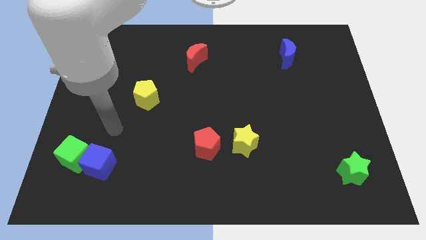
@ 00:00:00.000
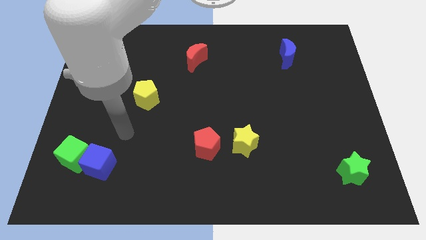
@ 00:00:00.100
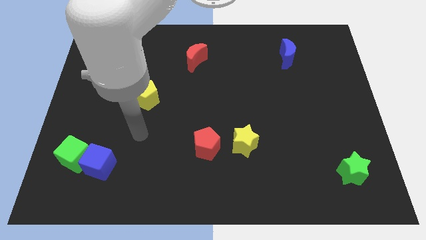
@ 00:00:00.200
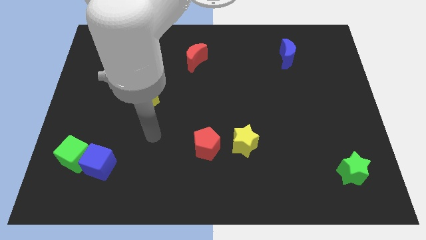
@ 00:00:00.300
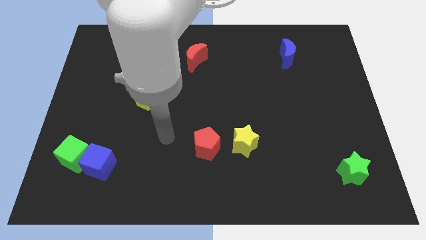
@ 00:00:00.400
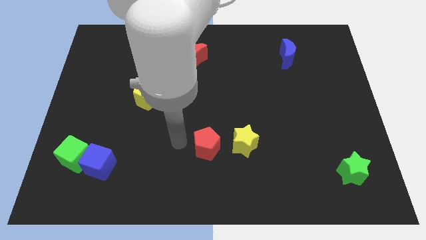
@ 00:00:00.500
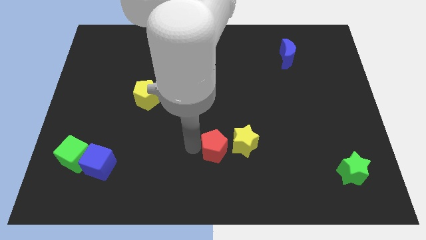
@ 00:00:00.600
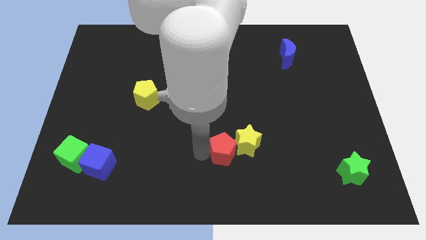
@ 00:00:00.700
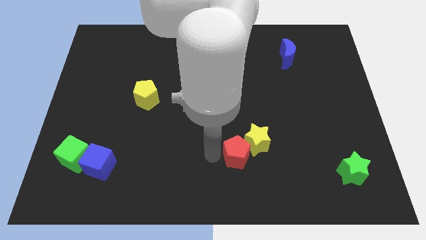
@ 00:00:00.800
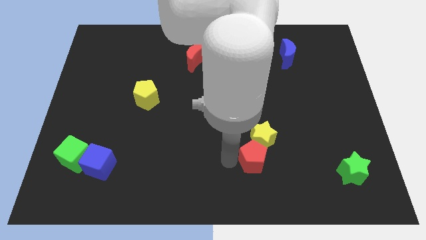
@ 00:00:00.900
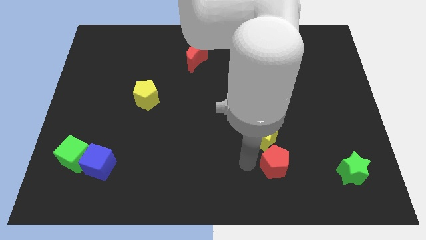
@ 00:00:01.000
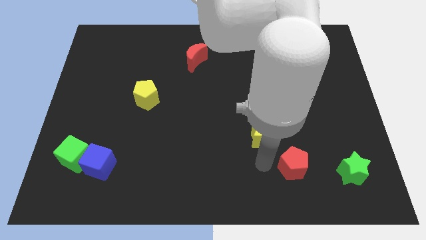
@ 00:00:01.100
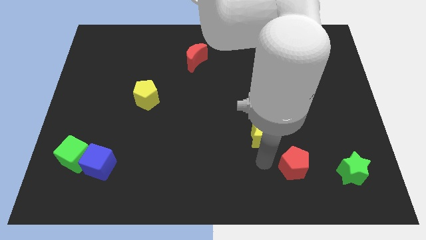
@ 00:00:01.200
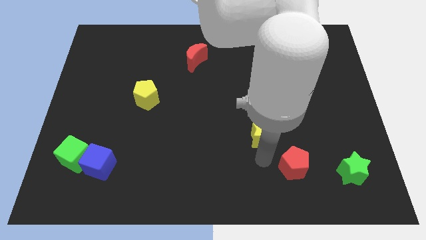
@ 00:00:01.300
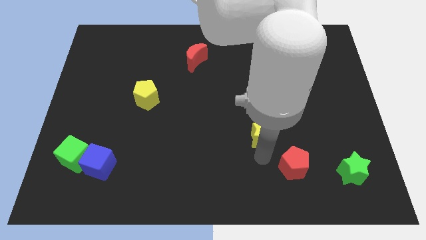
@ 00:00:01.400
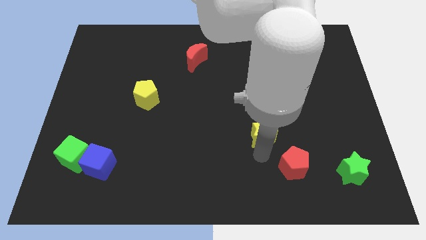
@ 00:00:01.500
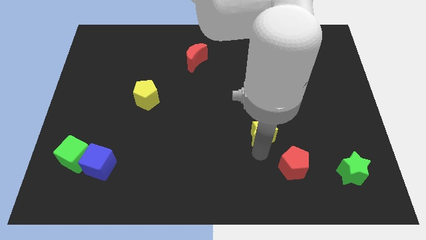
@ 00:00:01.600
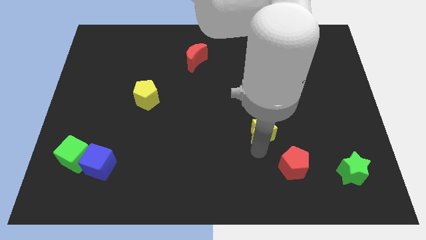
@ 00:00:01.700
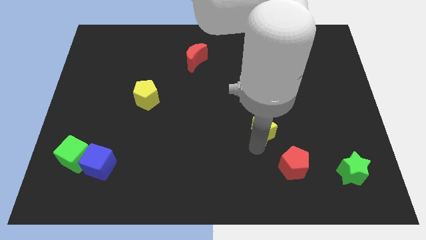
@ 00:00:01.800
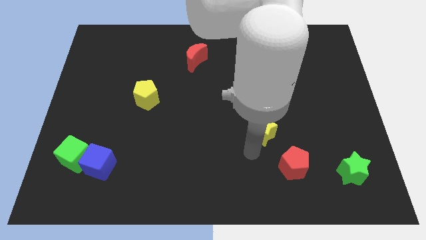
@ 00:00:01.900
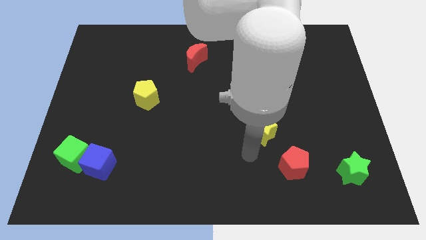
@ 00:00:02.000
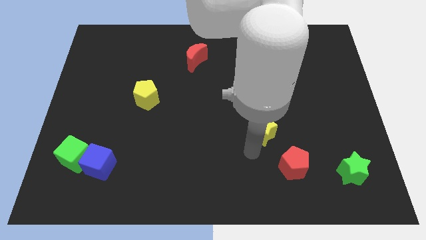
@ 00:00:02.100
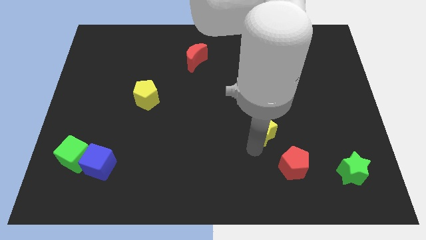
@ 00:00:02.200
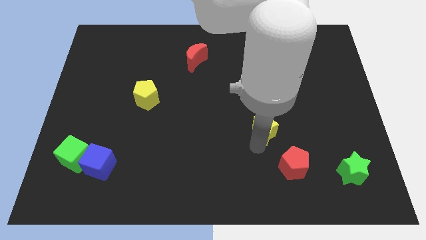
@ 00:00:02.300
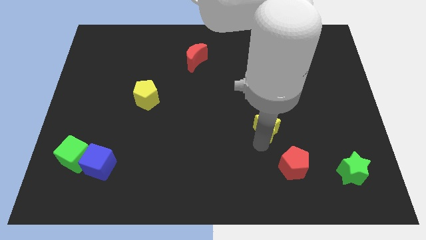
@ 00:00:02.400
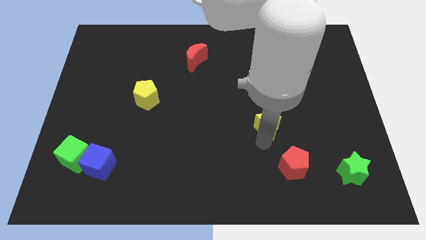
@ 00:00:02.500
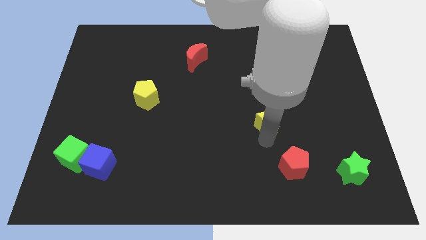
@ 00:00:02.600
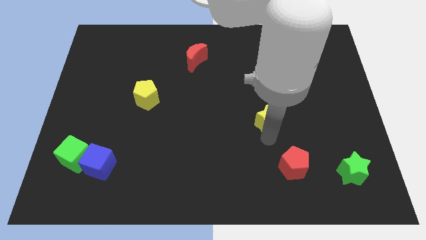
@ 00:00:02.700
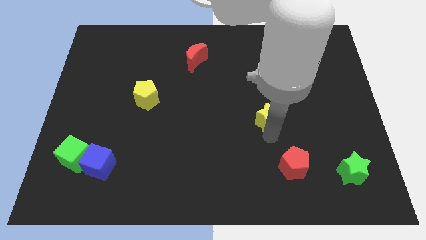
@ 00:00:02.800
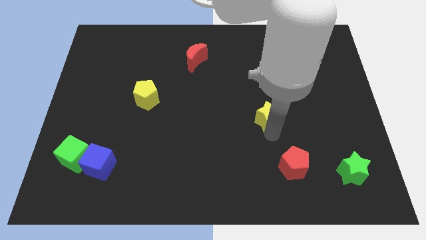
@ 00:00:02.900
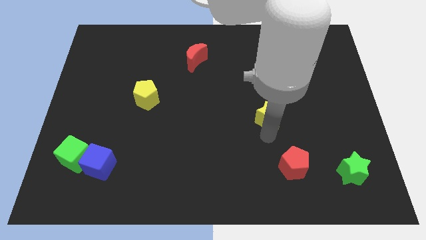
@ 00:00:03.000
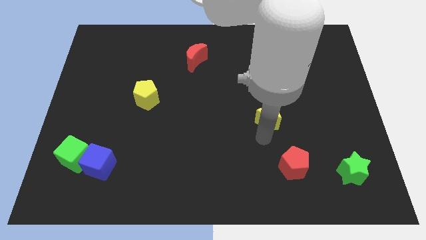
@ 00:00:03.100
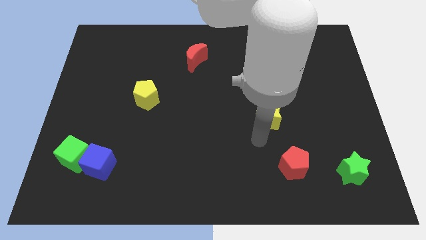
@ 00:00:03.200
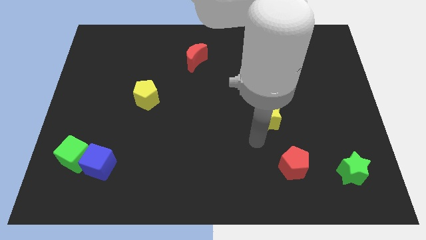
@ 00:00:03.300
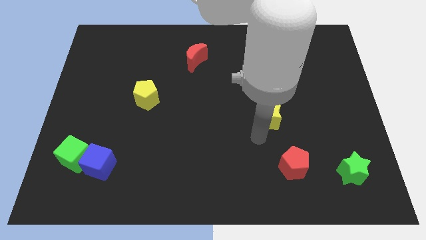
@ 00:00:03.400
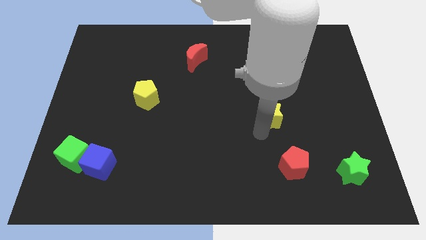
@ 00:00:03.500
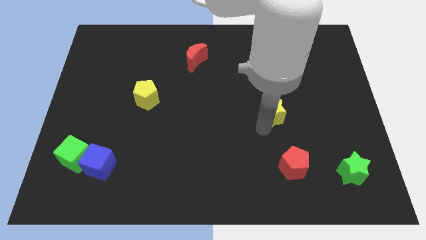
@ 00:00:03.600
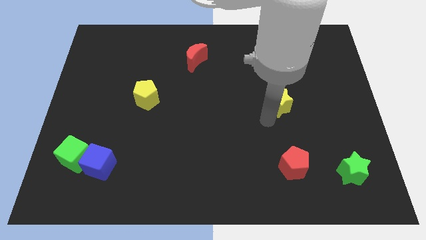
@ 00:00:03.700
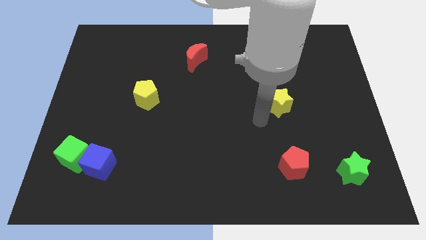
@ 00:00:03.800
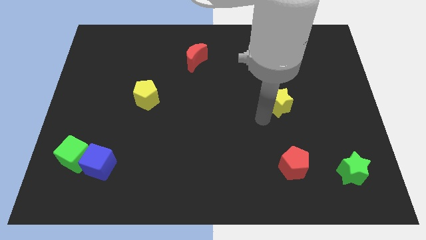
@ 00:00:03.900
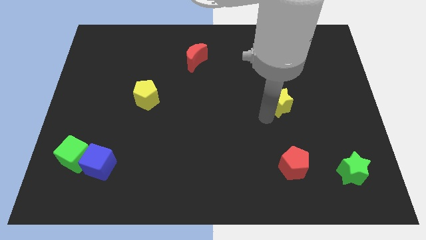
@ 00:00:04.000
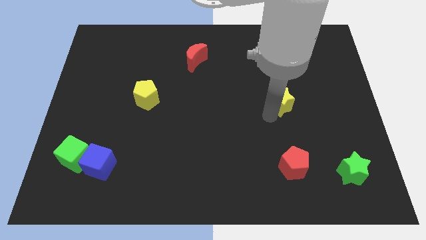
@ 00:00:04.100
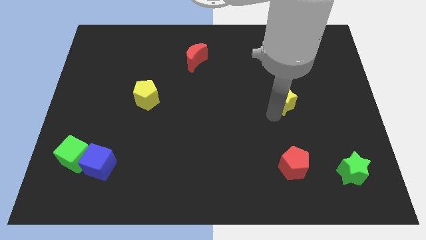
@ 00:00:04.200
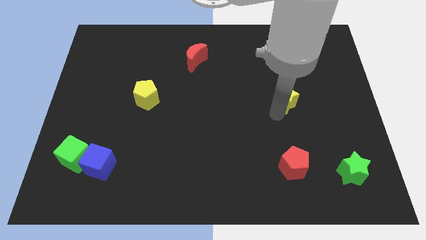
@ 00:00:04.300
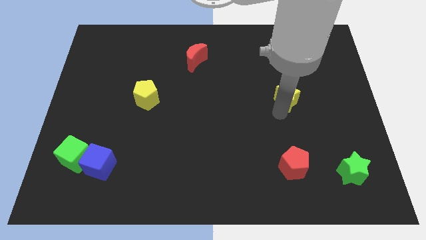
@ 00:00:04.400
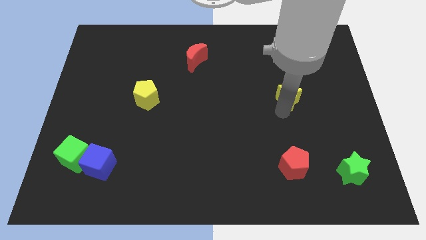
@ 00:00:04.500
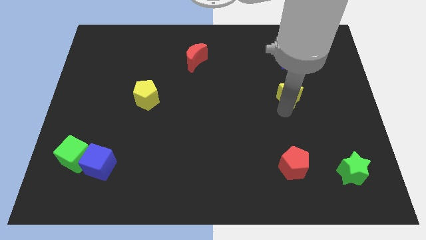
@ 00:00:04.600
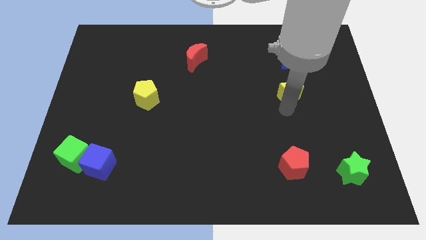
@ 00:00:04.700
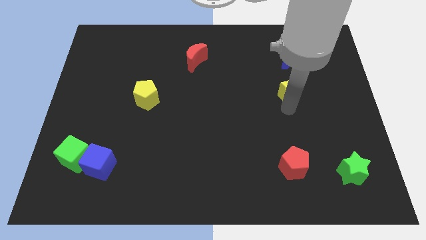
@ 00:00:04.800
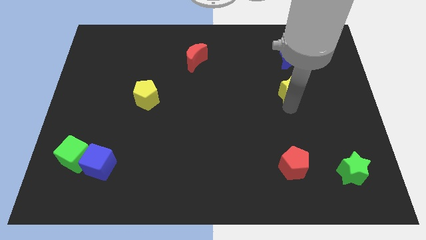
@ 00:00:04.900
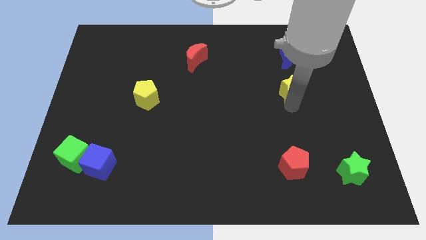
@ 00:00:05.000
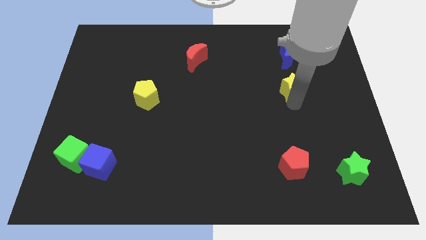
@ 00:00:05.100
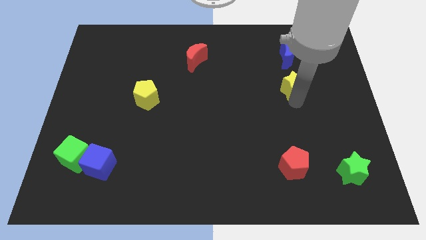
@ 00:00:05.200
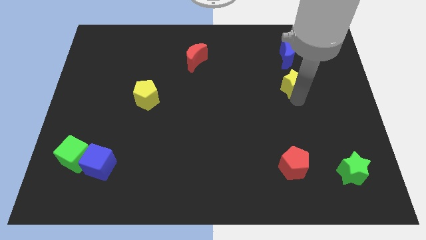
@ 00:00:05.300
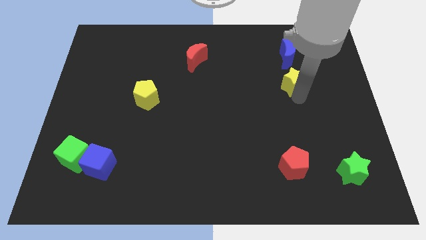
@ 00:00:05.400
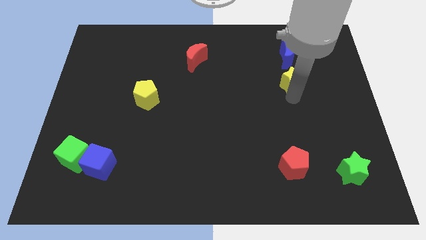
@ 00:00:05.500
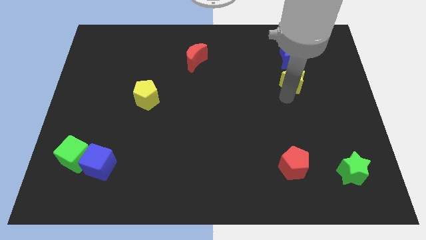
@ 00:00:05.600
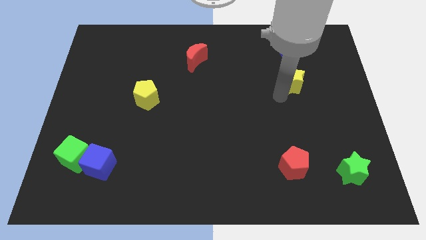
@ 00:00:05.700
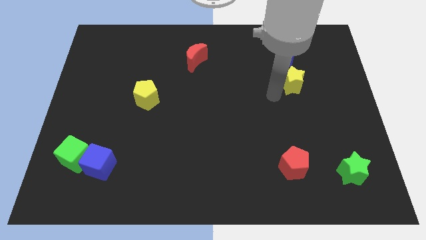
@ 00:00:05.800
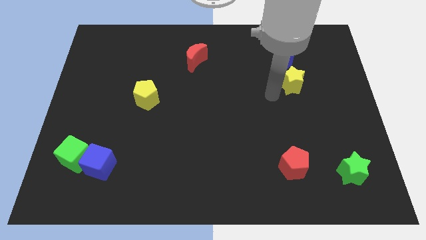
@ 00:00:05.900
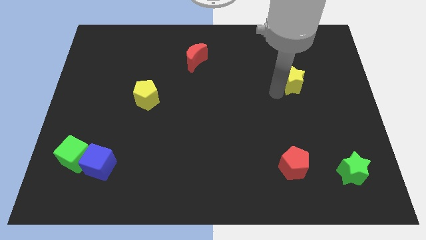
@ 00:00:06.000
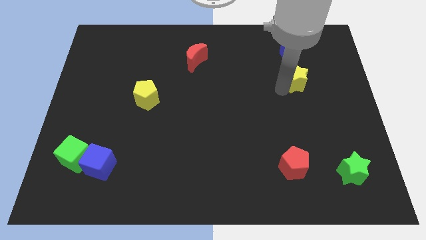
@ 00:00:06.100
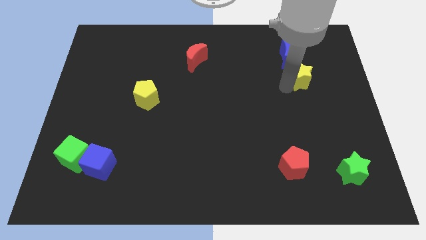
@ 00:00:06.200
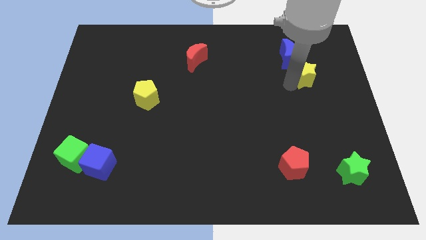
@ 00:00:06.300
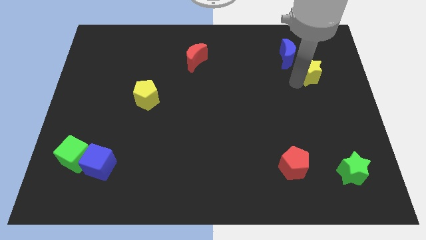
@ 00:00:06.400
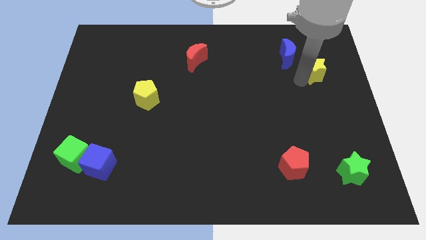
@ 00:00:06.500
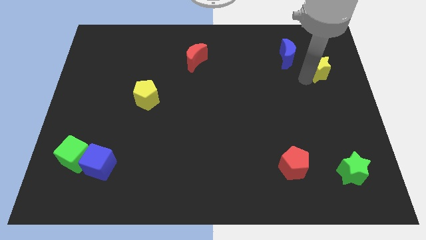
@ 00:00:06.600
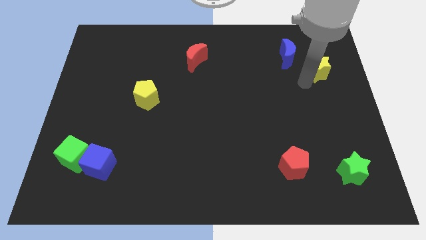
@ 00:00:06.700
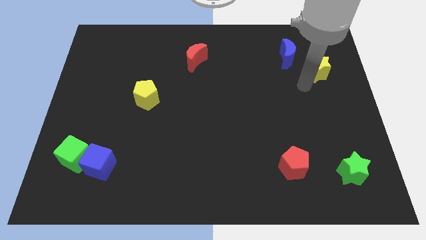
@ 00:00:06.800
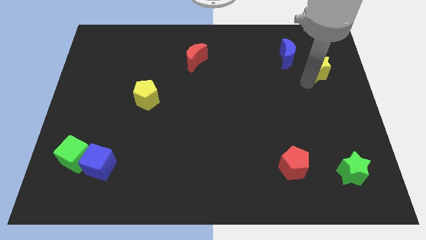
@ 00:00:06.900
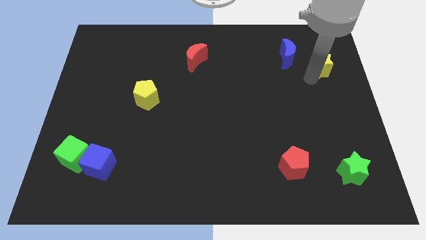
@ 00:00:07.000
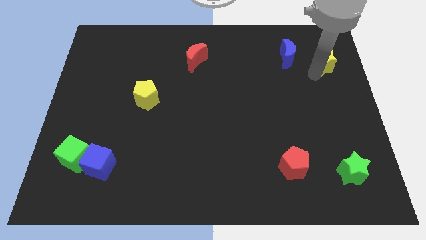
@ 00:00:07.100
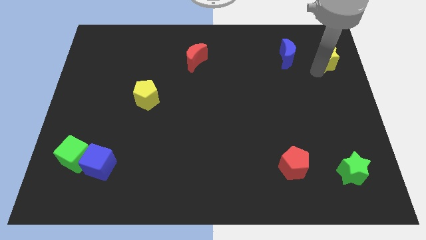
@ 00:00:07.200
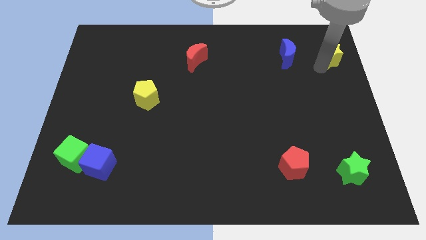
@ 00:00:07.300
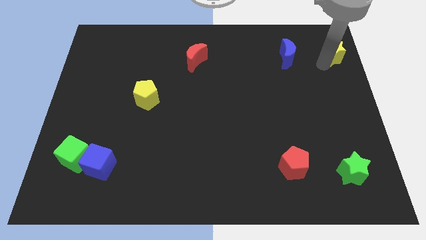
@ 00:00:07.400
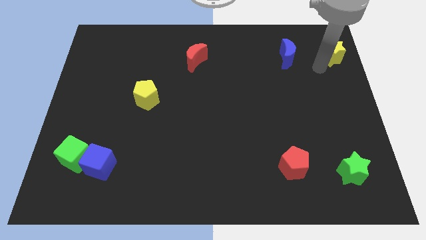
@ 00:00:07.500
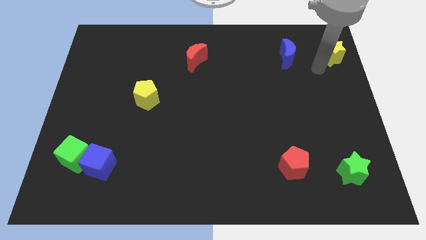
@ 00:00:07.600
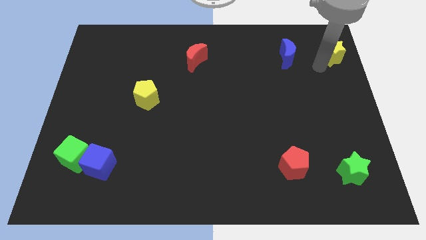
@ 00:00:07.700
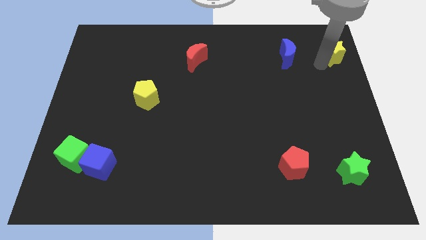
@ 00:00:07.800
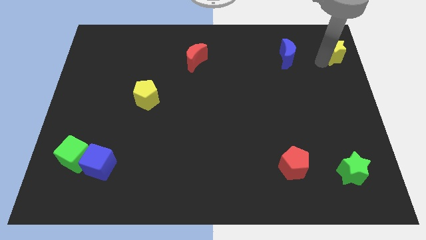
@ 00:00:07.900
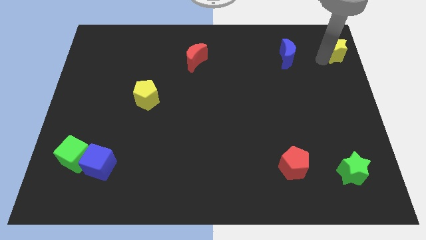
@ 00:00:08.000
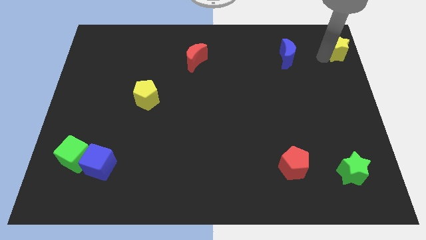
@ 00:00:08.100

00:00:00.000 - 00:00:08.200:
slide the yellow star to the top right of the board
